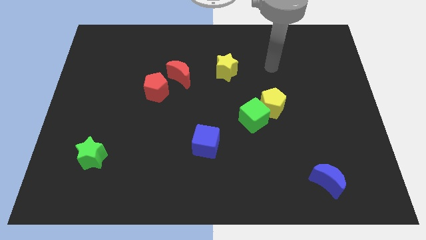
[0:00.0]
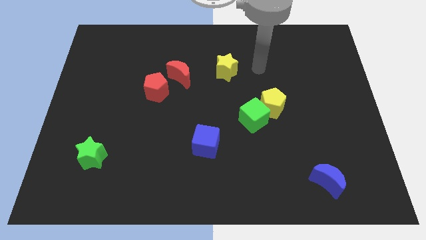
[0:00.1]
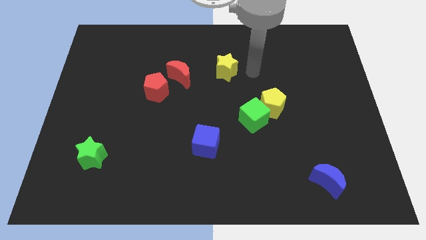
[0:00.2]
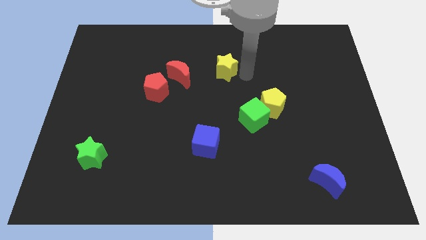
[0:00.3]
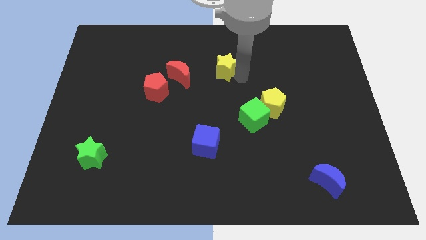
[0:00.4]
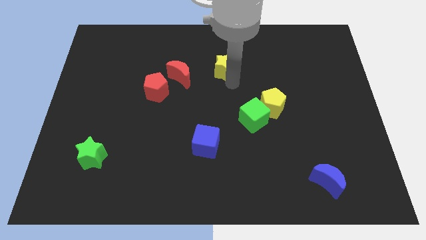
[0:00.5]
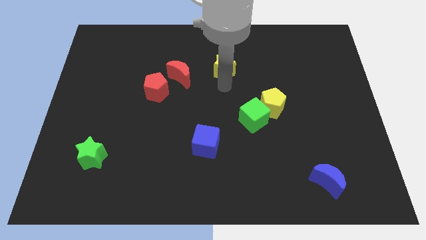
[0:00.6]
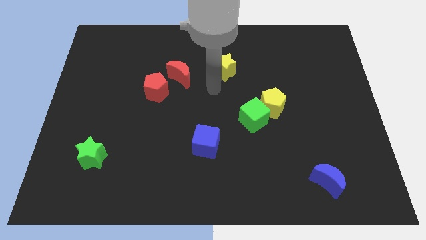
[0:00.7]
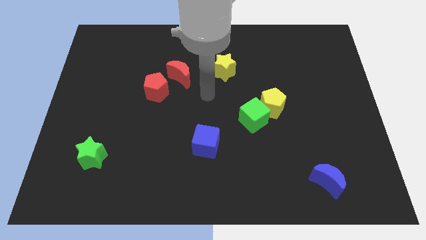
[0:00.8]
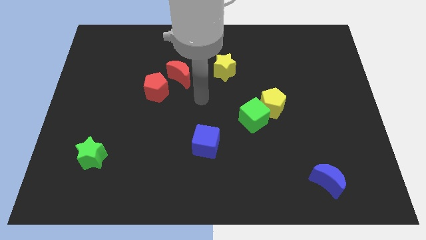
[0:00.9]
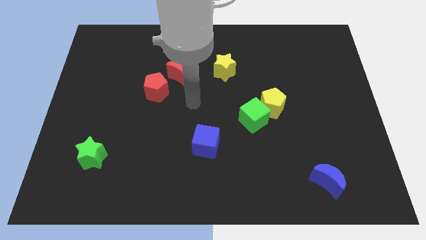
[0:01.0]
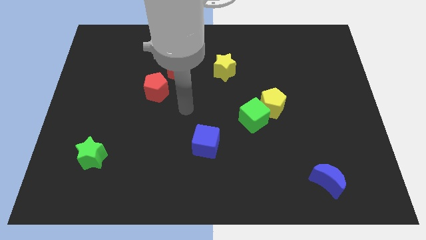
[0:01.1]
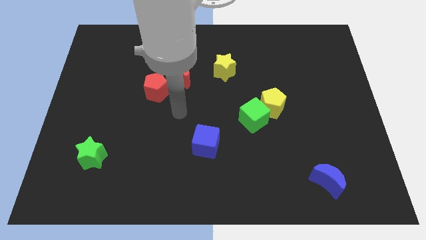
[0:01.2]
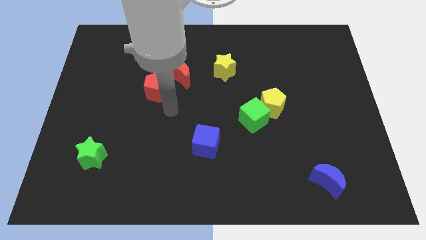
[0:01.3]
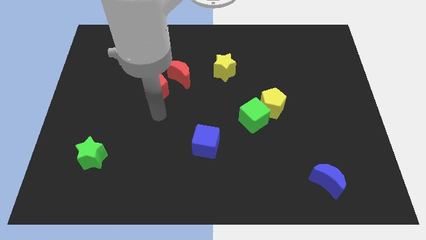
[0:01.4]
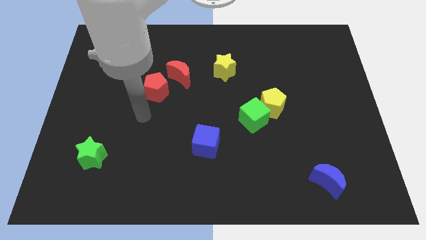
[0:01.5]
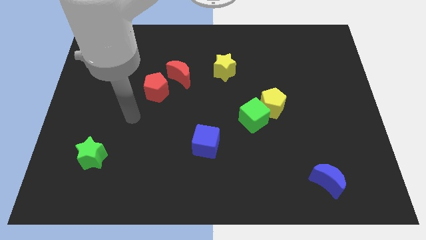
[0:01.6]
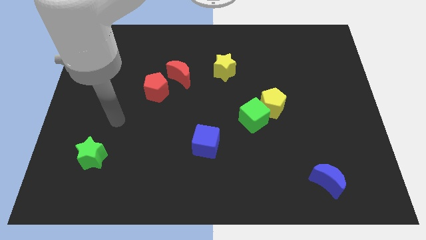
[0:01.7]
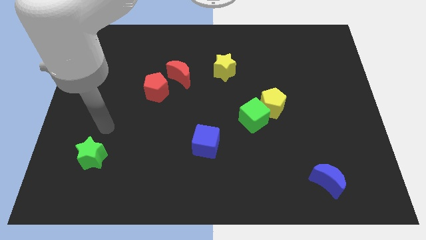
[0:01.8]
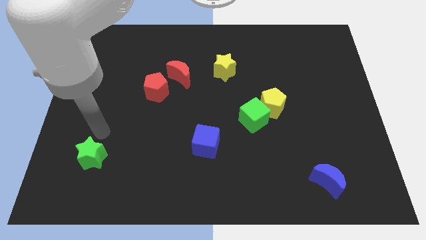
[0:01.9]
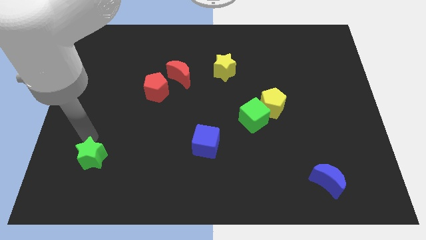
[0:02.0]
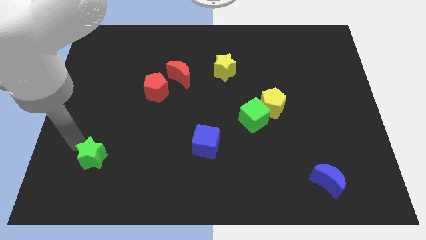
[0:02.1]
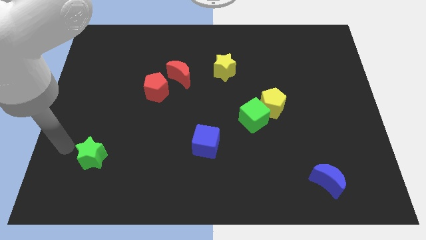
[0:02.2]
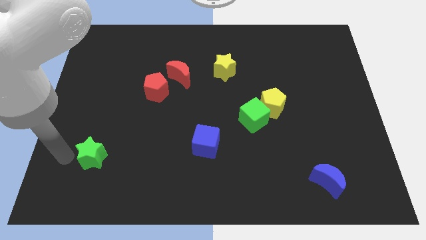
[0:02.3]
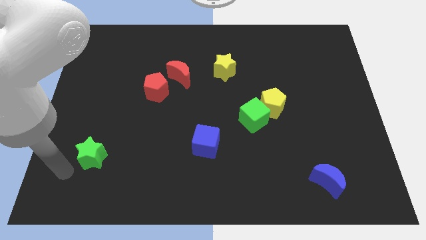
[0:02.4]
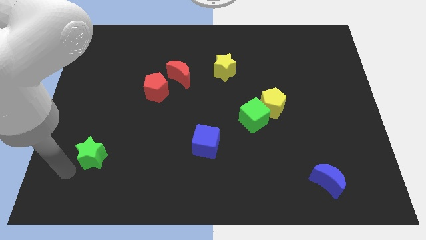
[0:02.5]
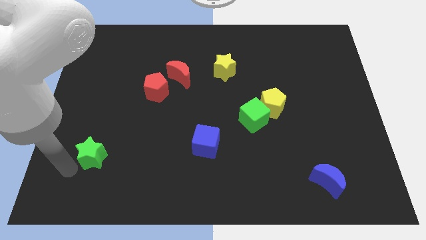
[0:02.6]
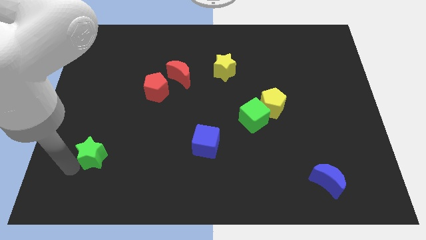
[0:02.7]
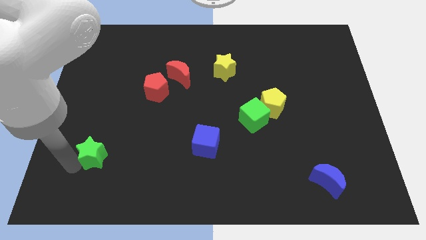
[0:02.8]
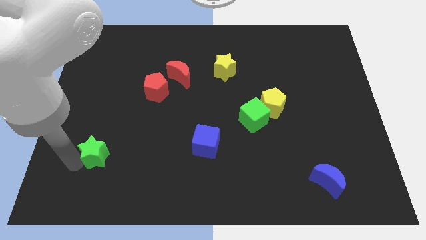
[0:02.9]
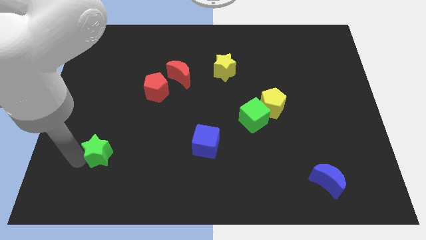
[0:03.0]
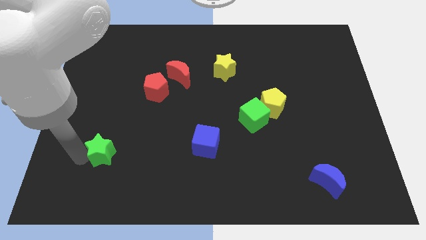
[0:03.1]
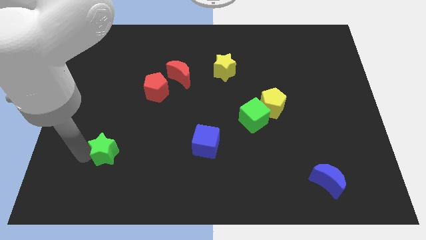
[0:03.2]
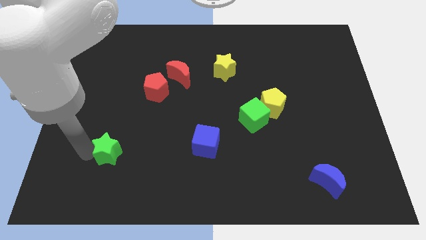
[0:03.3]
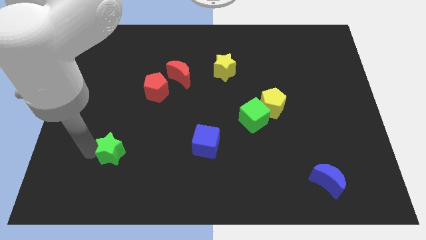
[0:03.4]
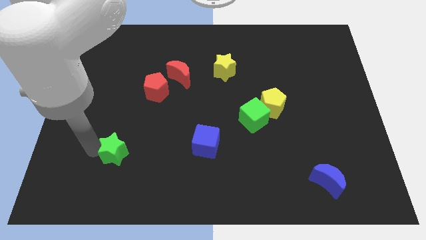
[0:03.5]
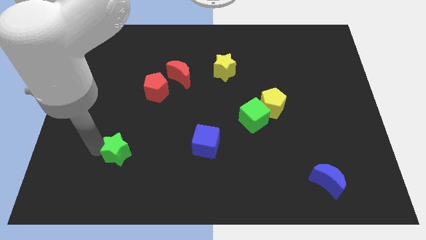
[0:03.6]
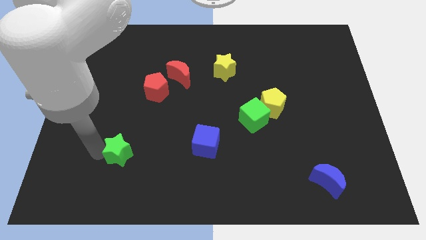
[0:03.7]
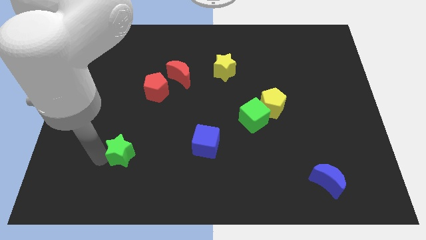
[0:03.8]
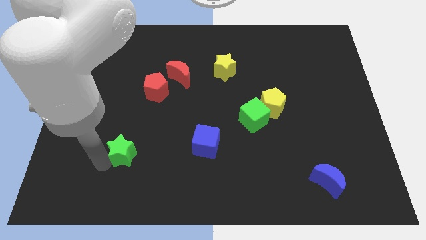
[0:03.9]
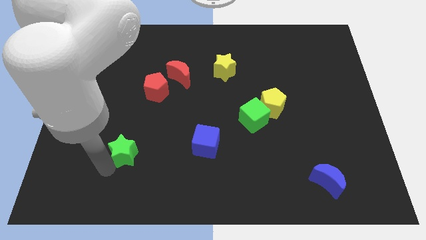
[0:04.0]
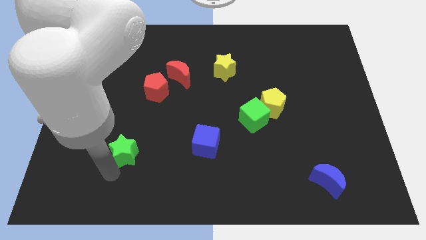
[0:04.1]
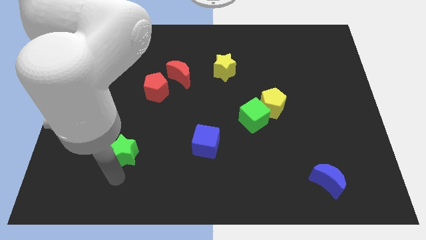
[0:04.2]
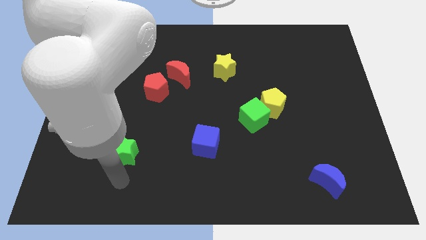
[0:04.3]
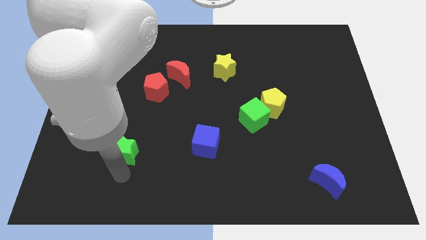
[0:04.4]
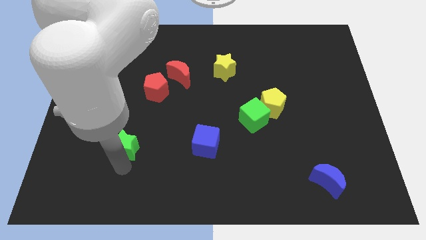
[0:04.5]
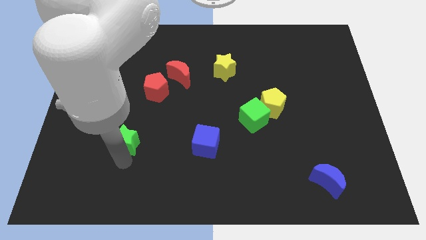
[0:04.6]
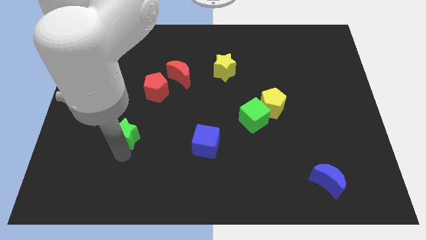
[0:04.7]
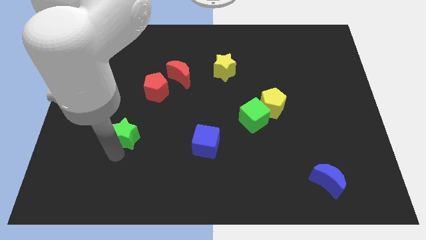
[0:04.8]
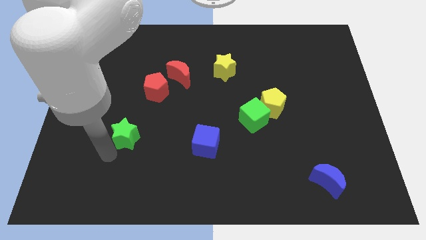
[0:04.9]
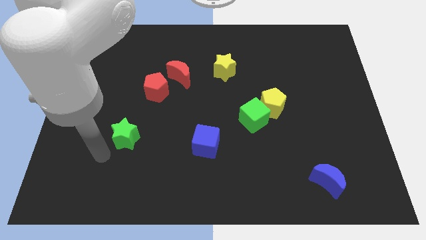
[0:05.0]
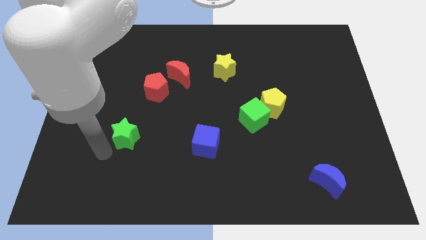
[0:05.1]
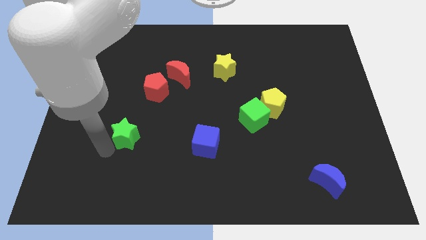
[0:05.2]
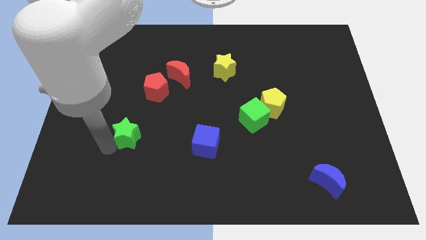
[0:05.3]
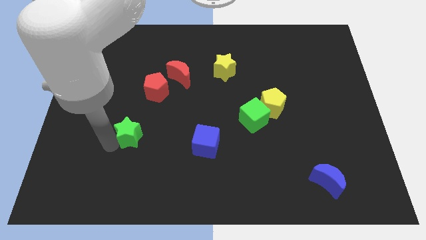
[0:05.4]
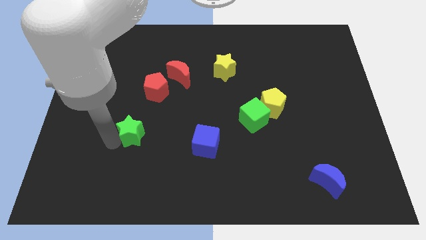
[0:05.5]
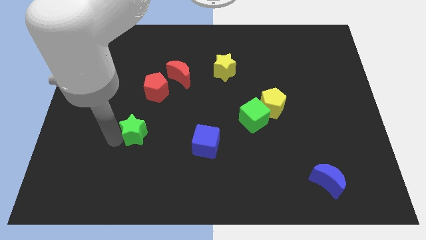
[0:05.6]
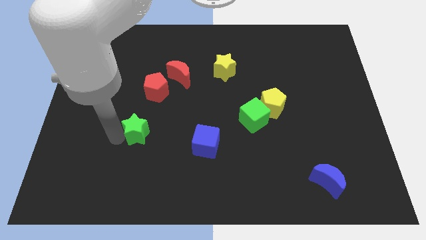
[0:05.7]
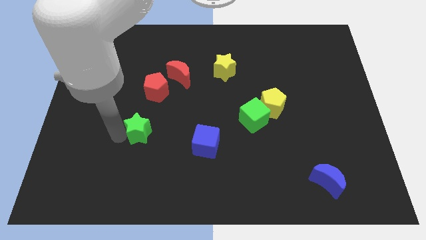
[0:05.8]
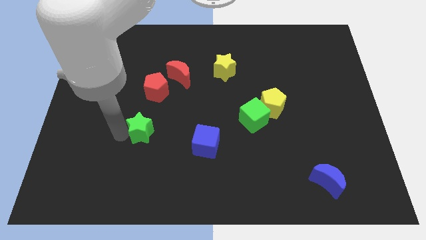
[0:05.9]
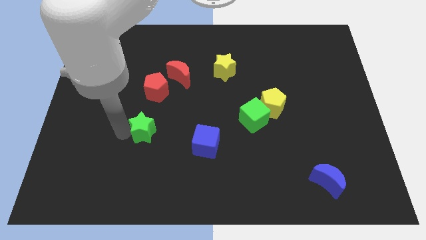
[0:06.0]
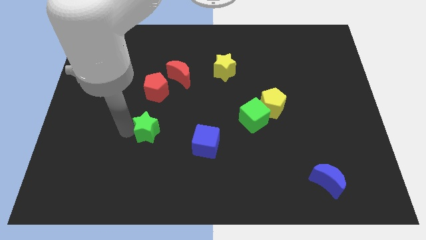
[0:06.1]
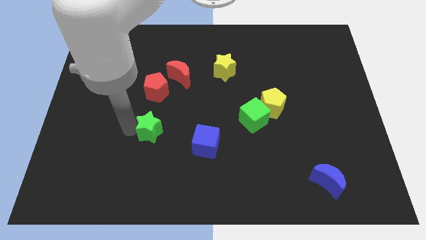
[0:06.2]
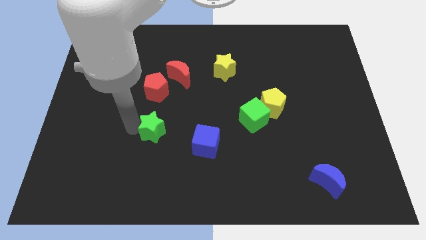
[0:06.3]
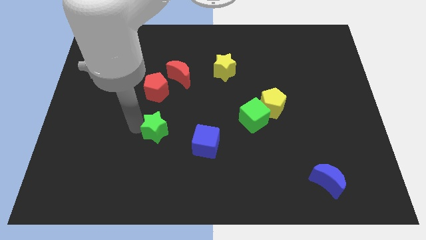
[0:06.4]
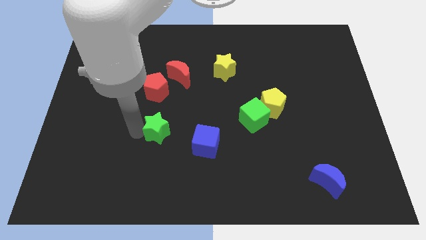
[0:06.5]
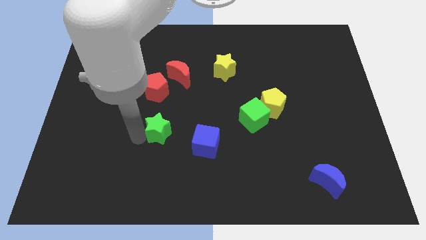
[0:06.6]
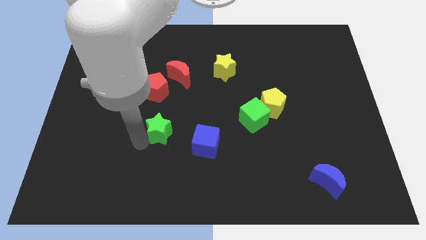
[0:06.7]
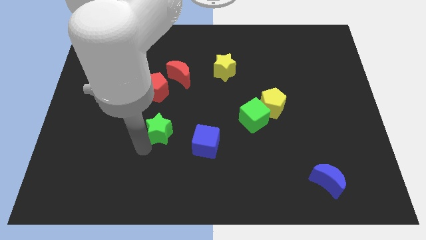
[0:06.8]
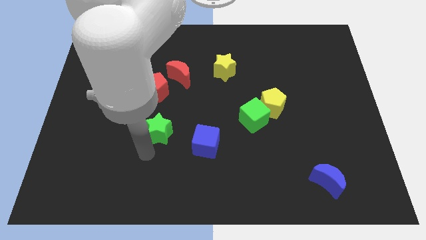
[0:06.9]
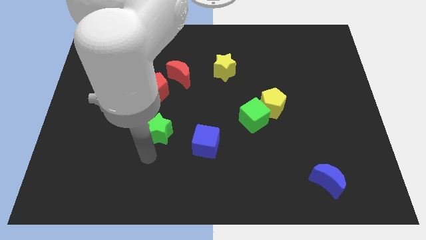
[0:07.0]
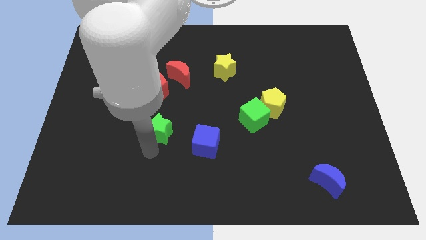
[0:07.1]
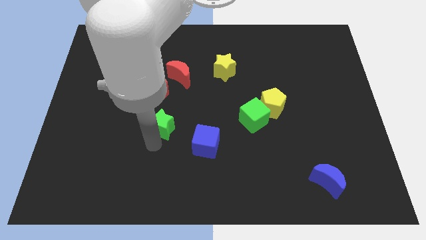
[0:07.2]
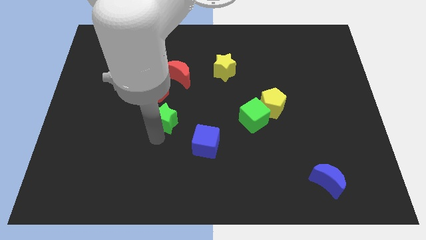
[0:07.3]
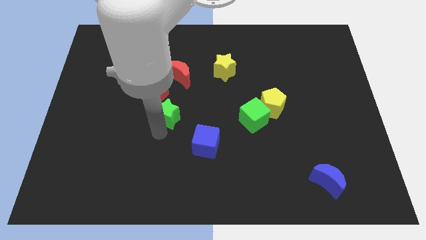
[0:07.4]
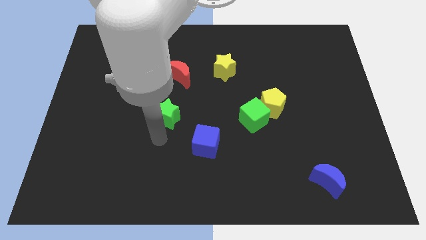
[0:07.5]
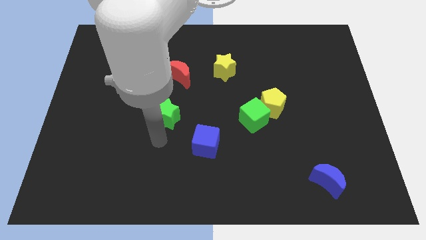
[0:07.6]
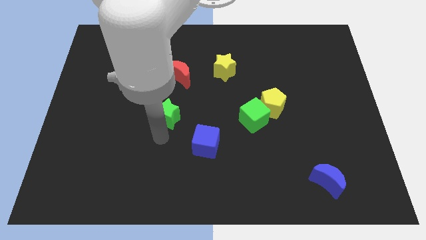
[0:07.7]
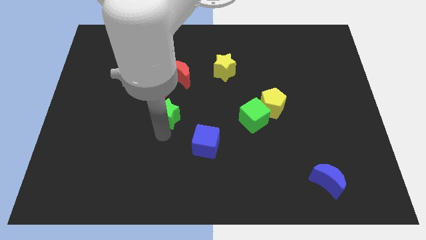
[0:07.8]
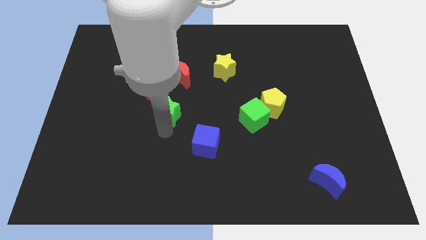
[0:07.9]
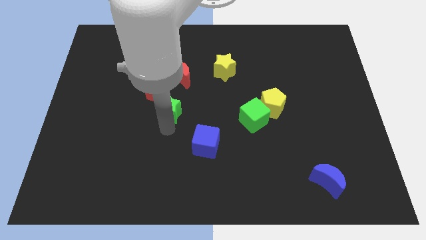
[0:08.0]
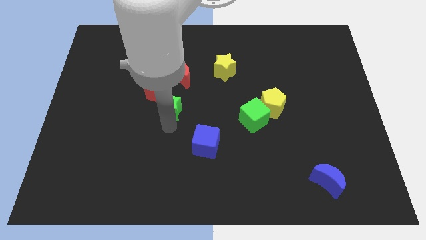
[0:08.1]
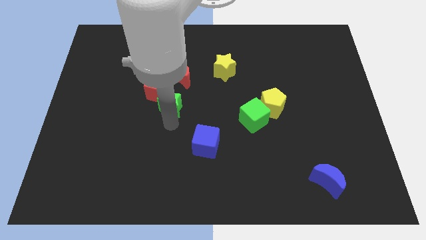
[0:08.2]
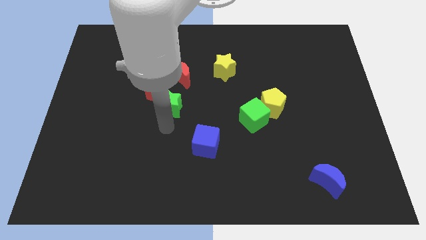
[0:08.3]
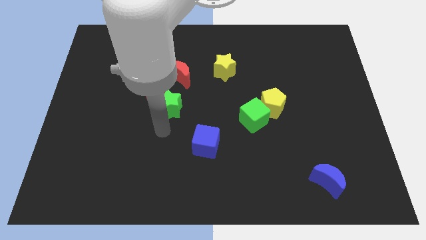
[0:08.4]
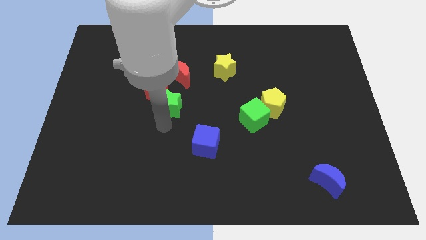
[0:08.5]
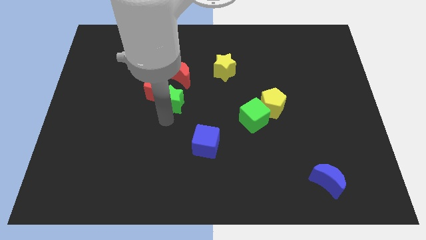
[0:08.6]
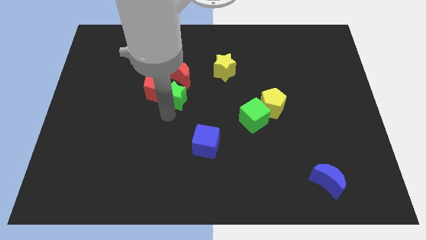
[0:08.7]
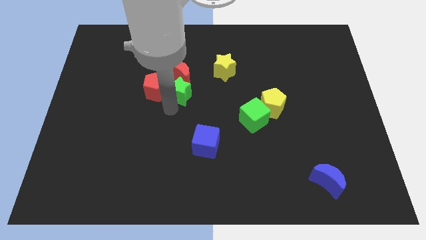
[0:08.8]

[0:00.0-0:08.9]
slide the green star to the red moon
